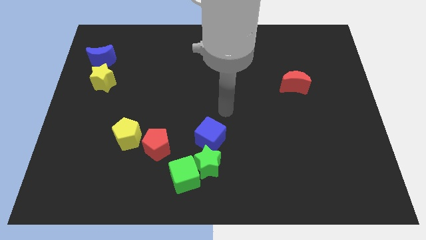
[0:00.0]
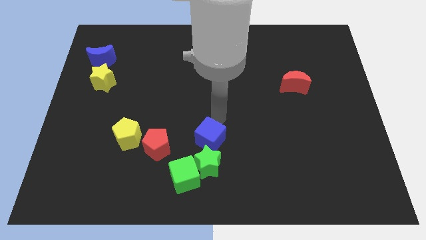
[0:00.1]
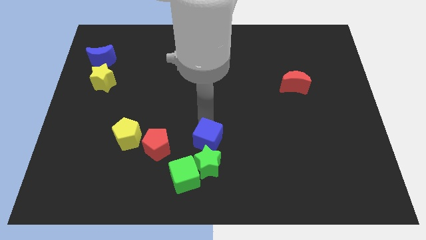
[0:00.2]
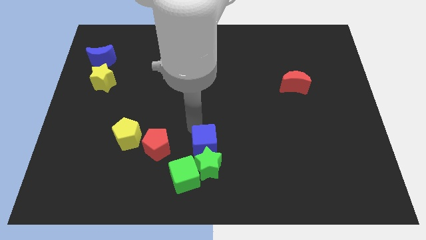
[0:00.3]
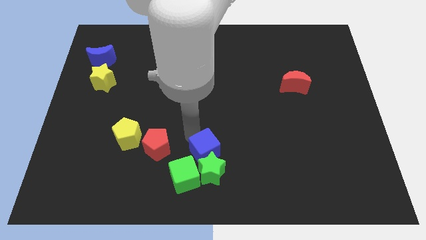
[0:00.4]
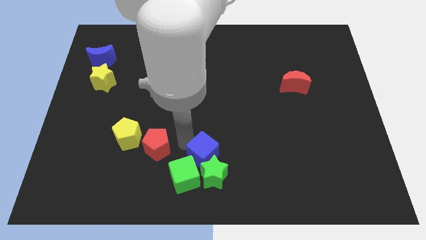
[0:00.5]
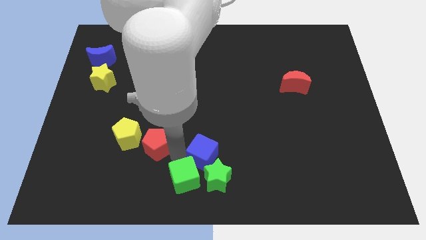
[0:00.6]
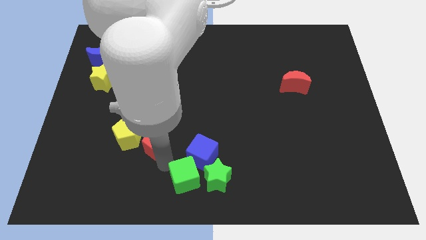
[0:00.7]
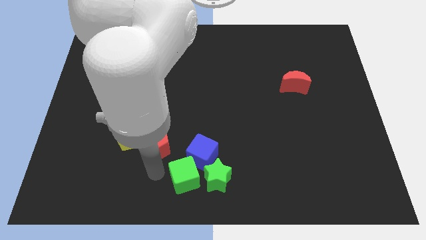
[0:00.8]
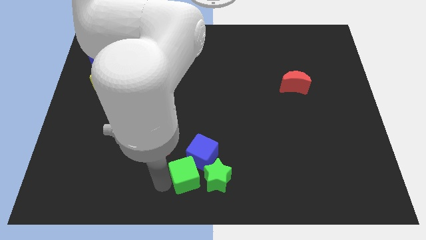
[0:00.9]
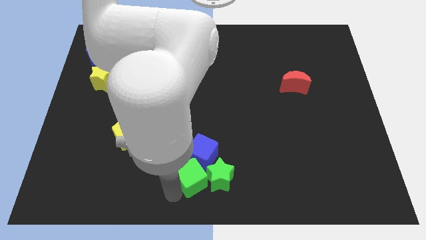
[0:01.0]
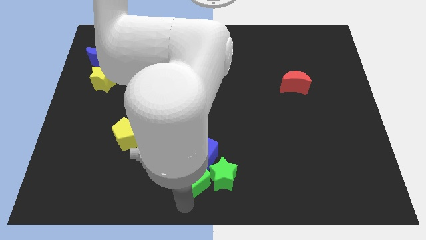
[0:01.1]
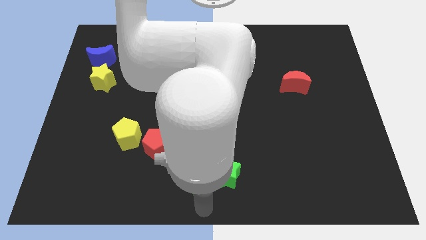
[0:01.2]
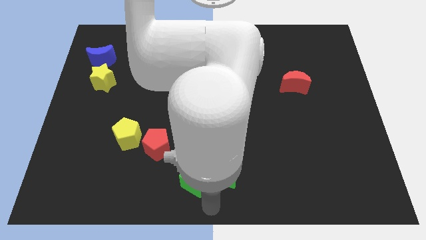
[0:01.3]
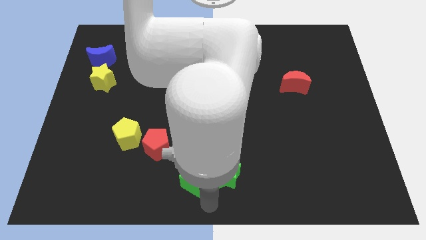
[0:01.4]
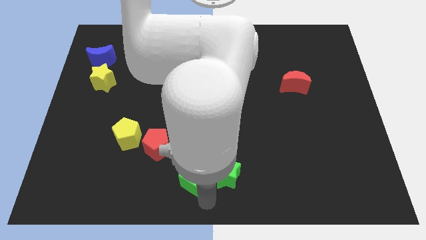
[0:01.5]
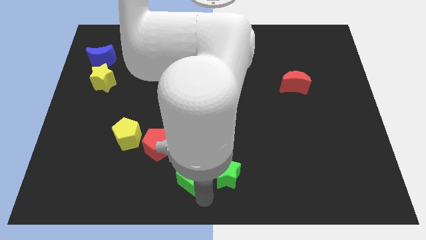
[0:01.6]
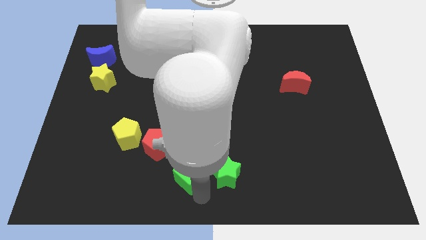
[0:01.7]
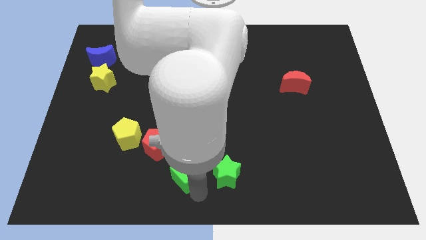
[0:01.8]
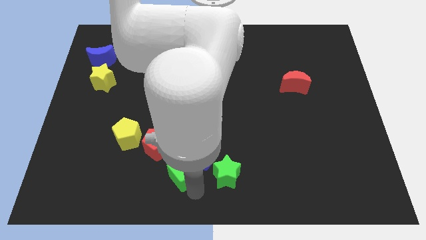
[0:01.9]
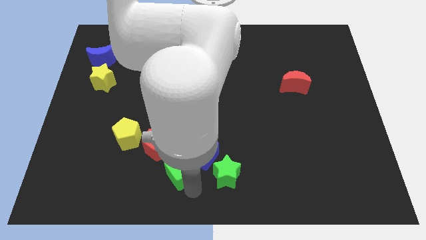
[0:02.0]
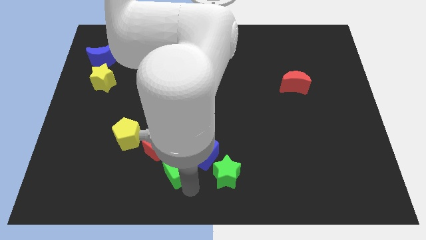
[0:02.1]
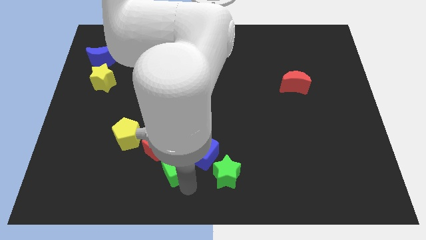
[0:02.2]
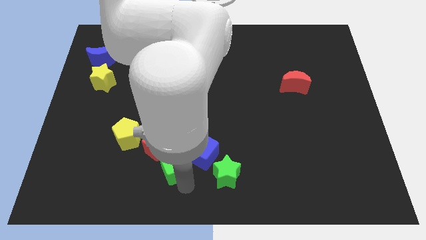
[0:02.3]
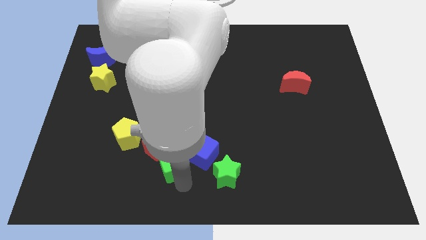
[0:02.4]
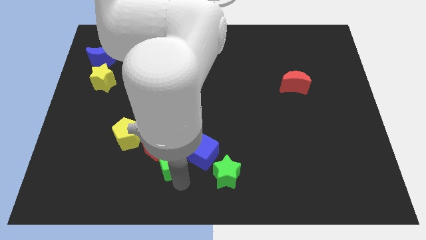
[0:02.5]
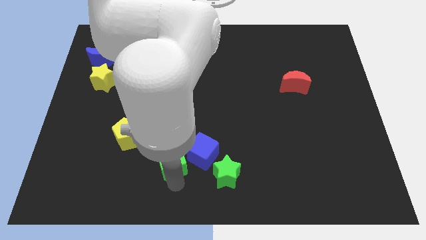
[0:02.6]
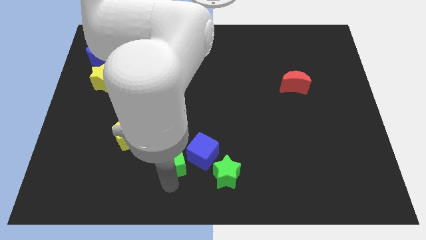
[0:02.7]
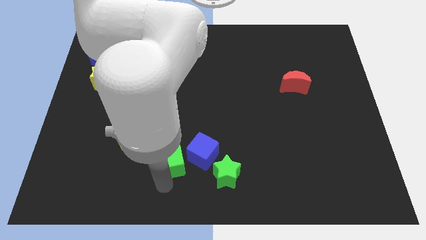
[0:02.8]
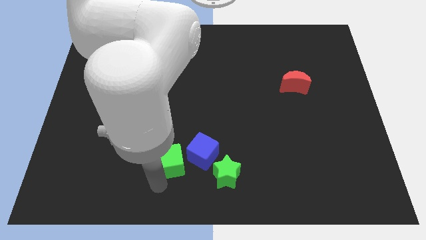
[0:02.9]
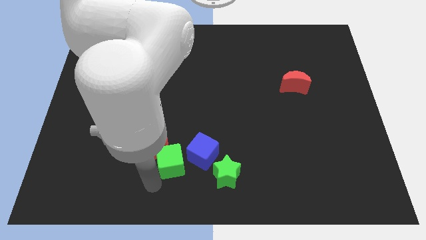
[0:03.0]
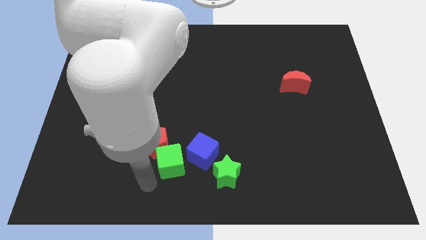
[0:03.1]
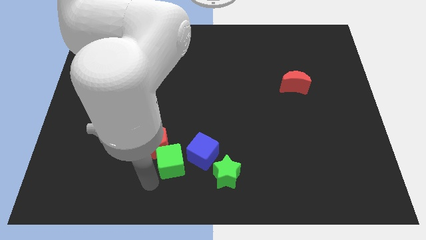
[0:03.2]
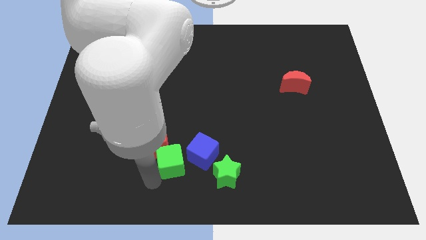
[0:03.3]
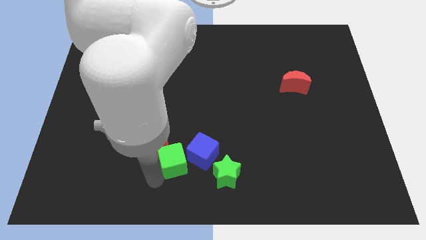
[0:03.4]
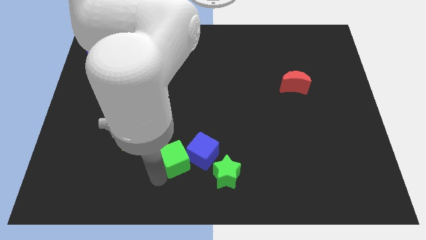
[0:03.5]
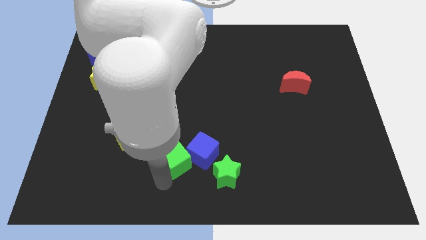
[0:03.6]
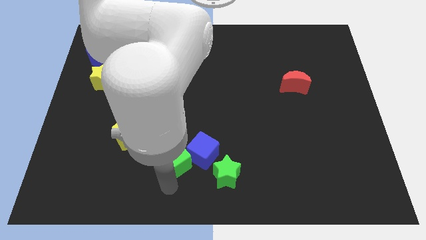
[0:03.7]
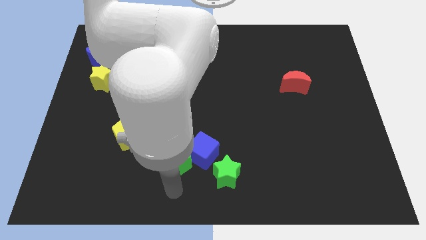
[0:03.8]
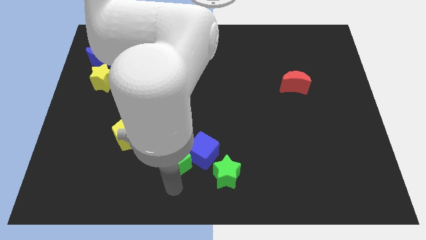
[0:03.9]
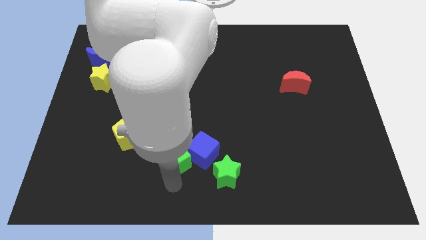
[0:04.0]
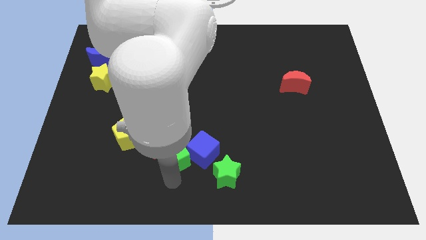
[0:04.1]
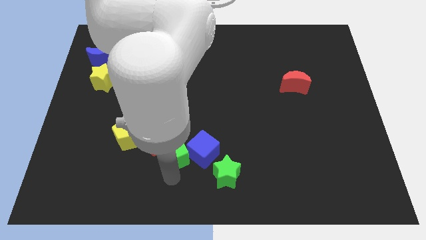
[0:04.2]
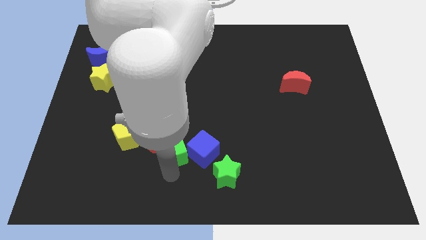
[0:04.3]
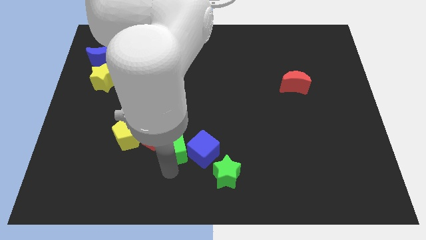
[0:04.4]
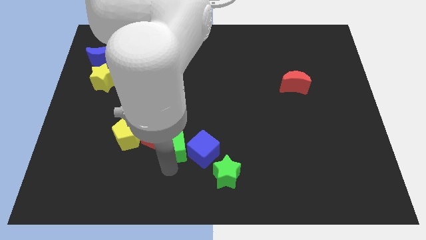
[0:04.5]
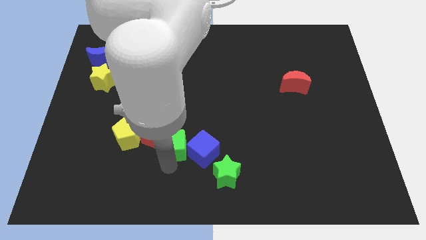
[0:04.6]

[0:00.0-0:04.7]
slide the green cube upwards a little

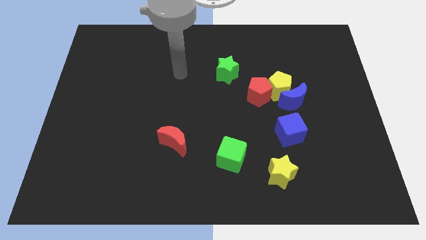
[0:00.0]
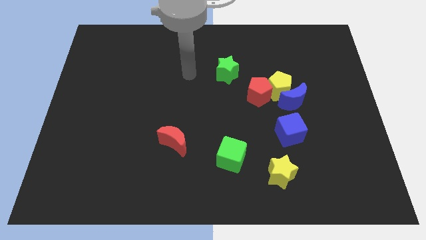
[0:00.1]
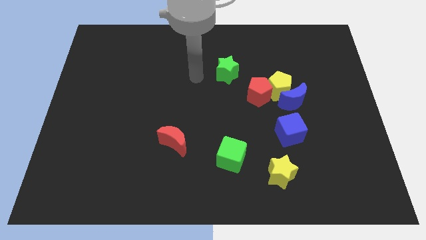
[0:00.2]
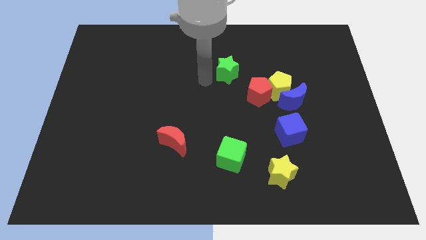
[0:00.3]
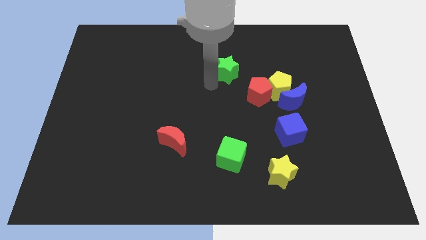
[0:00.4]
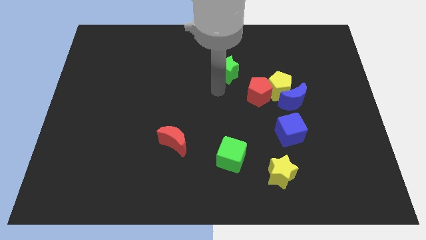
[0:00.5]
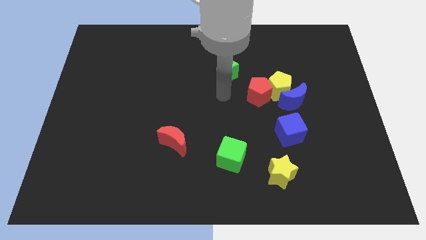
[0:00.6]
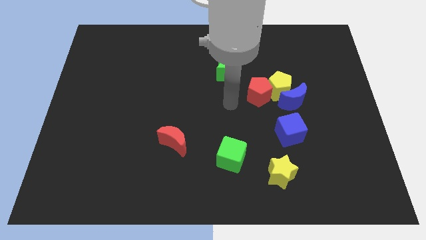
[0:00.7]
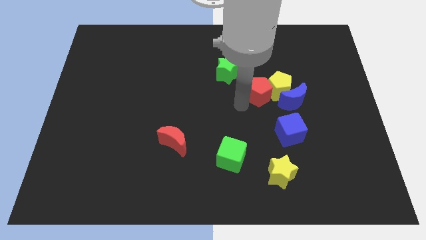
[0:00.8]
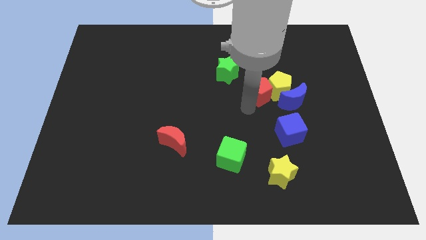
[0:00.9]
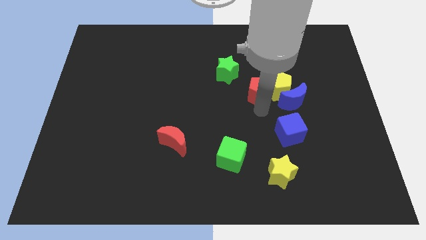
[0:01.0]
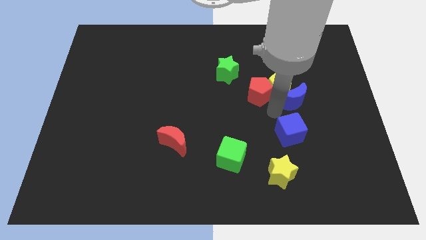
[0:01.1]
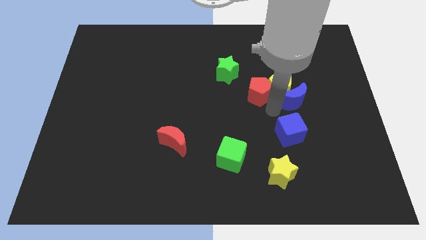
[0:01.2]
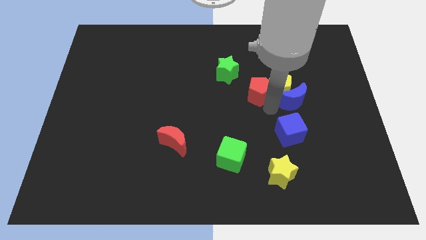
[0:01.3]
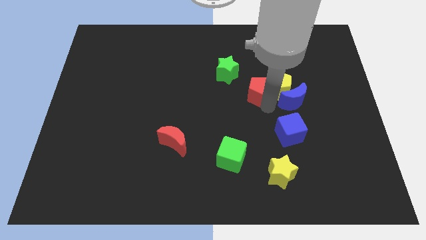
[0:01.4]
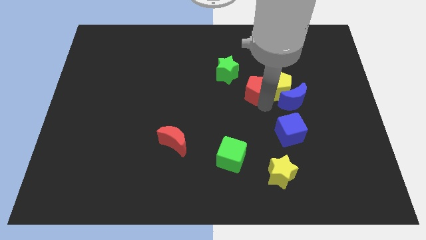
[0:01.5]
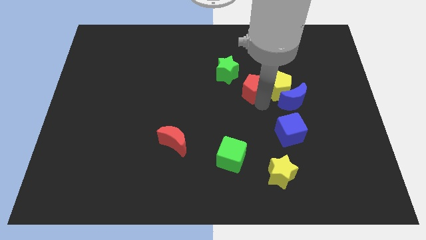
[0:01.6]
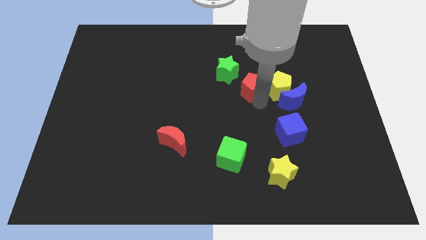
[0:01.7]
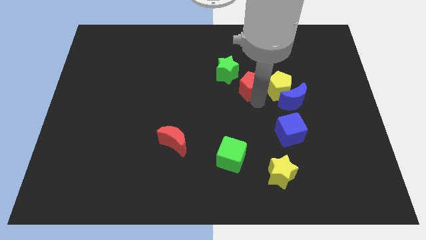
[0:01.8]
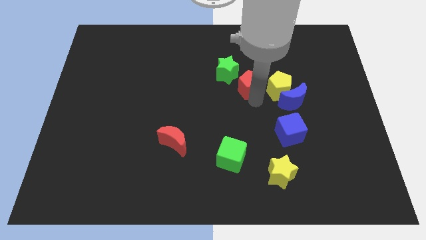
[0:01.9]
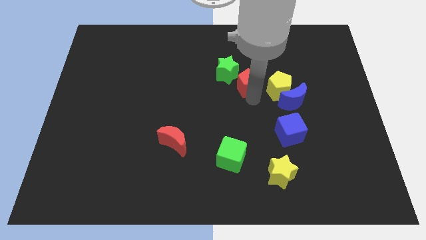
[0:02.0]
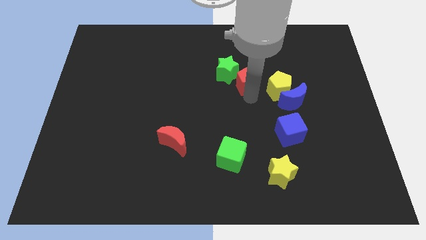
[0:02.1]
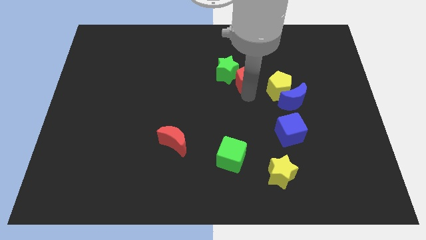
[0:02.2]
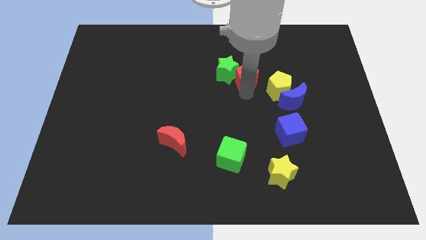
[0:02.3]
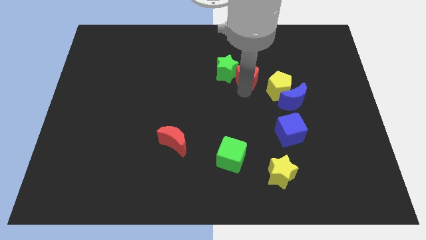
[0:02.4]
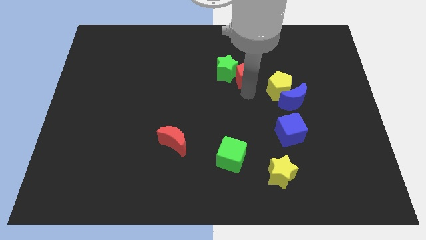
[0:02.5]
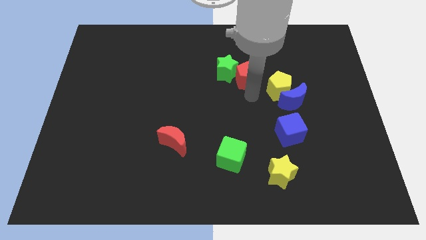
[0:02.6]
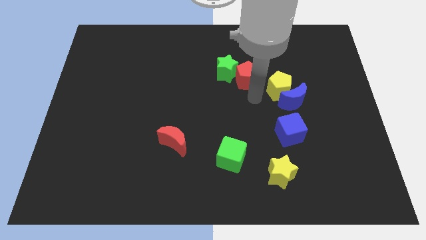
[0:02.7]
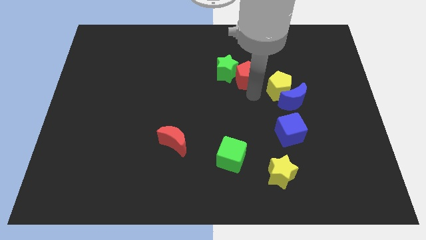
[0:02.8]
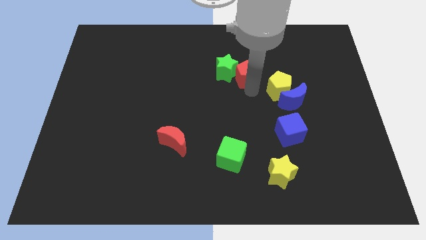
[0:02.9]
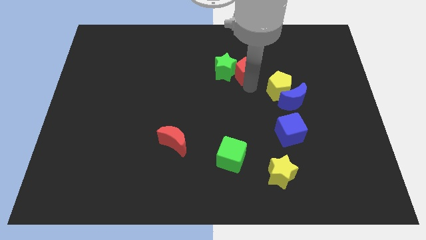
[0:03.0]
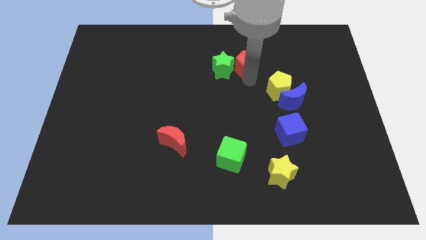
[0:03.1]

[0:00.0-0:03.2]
slightly slide the red pentagon upwards and to the left diagonally
